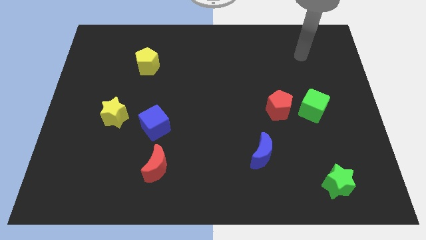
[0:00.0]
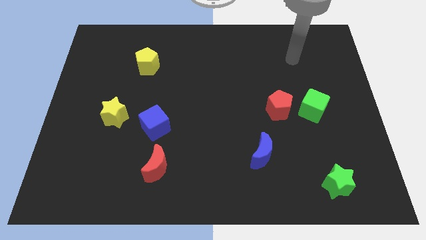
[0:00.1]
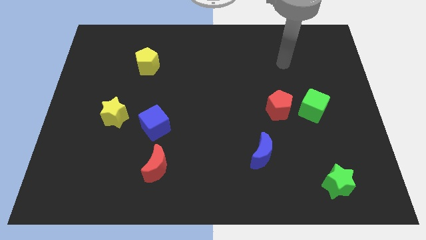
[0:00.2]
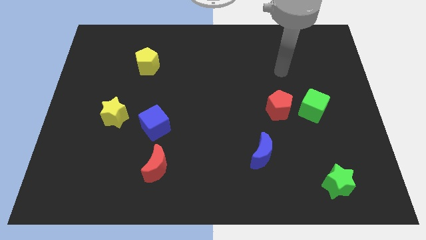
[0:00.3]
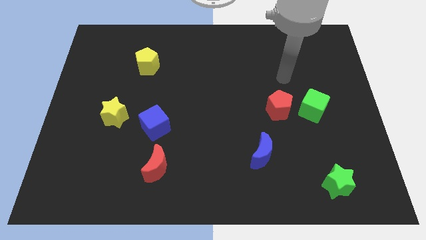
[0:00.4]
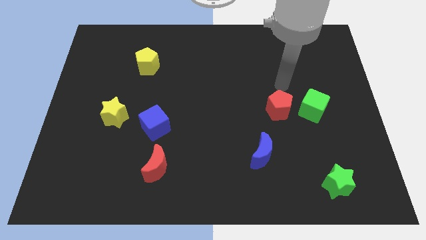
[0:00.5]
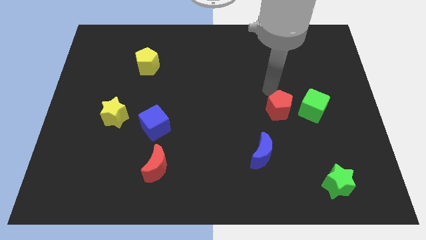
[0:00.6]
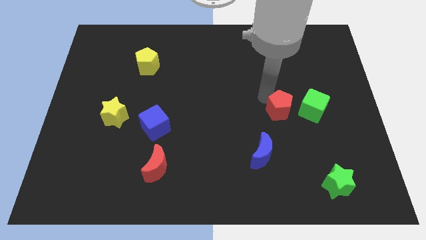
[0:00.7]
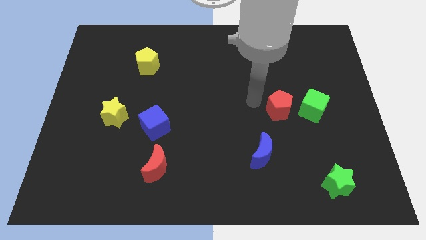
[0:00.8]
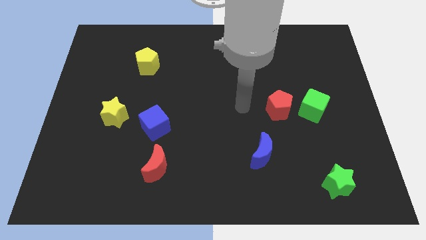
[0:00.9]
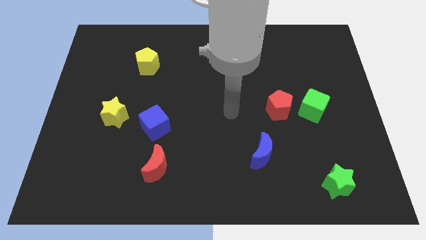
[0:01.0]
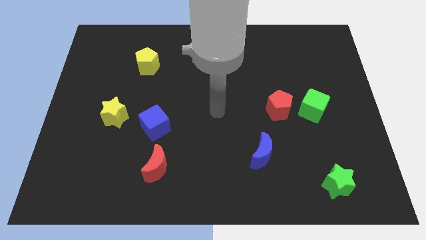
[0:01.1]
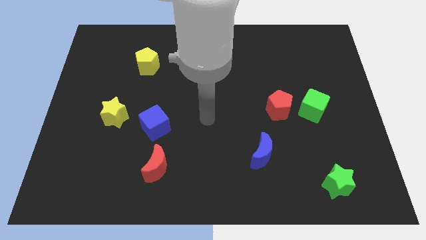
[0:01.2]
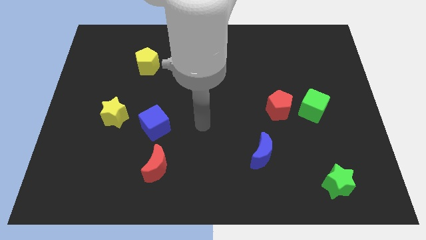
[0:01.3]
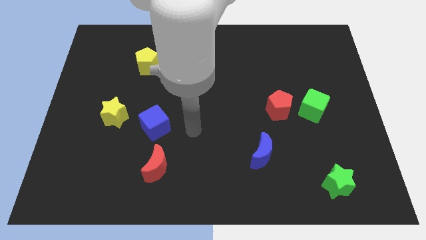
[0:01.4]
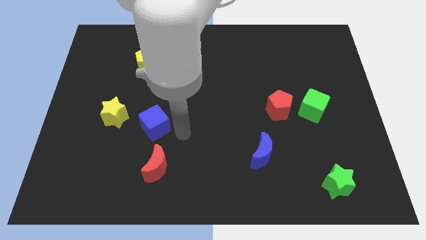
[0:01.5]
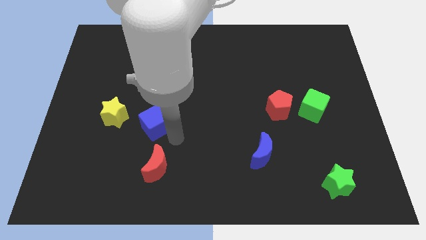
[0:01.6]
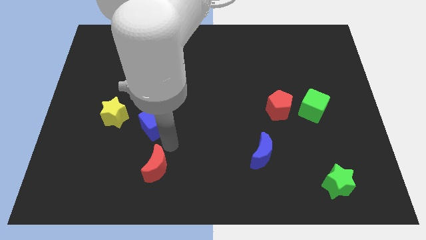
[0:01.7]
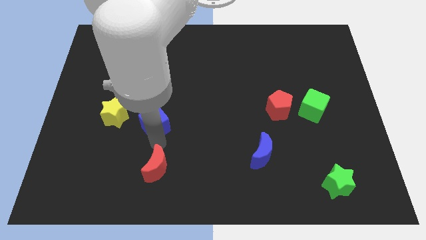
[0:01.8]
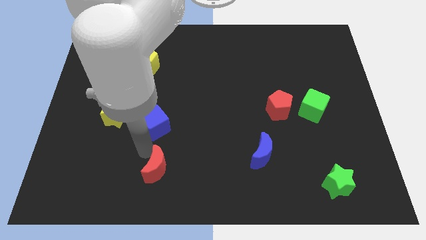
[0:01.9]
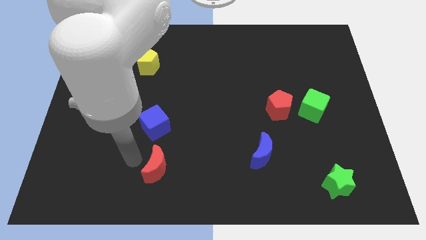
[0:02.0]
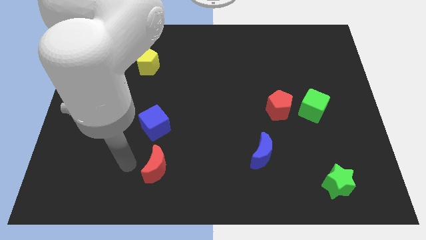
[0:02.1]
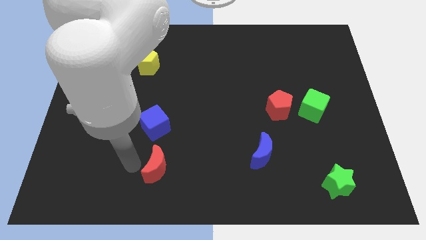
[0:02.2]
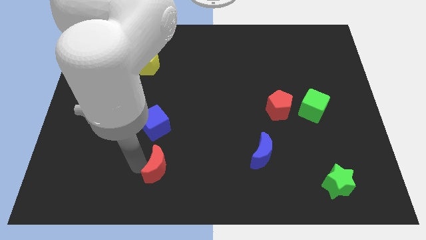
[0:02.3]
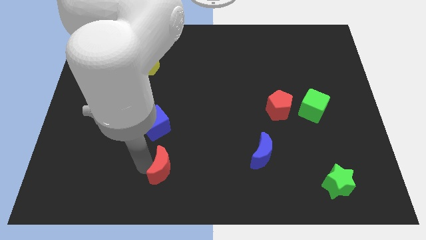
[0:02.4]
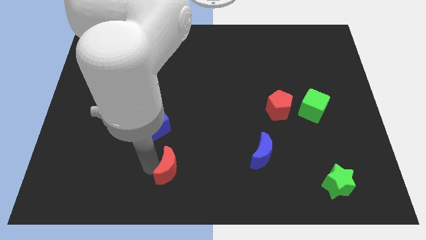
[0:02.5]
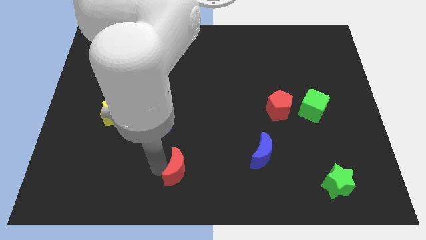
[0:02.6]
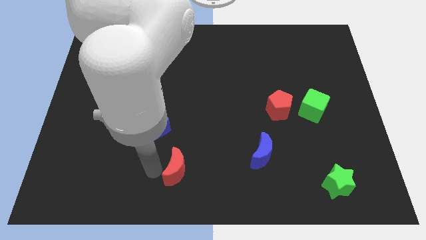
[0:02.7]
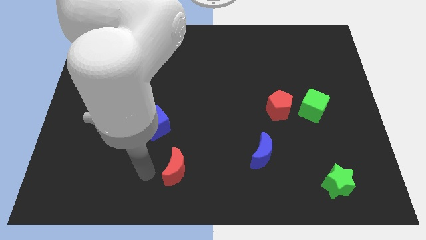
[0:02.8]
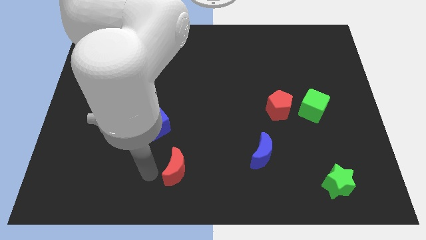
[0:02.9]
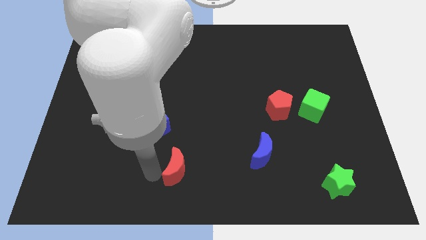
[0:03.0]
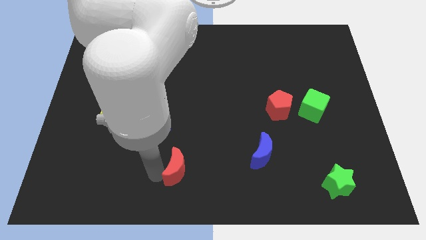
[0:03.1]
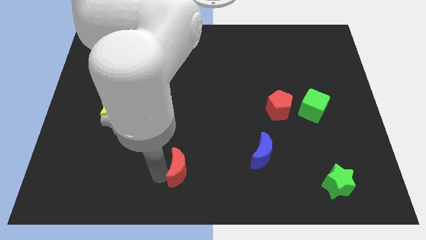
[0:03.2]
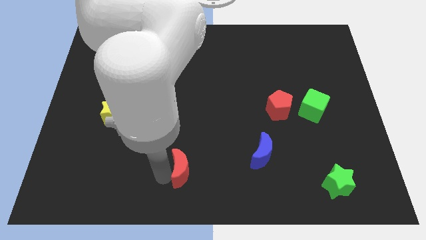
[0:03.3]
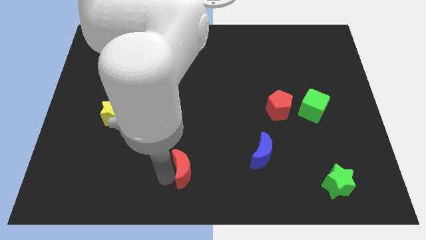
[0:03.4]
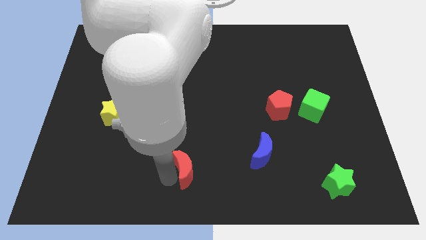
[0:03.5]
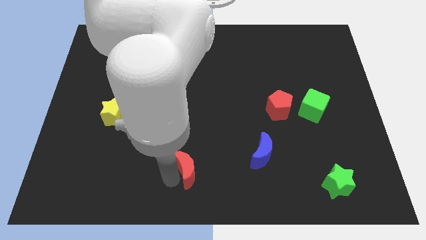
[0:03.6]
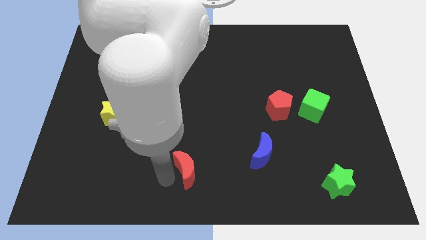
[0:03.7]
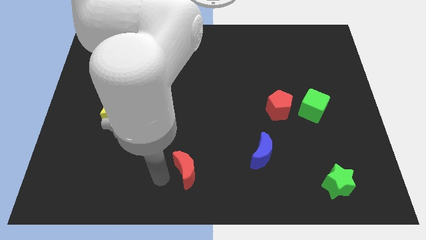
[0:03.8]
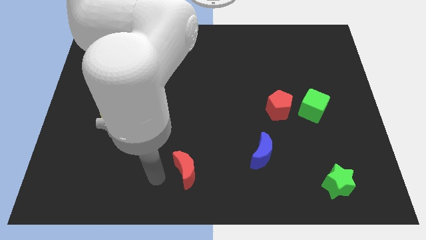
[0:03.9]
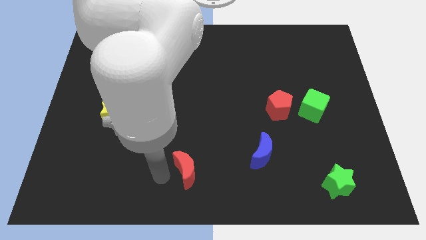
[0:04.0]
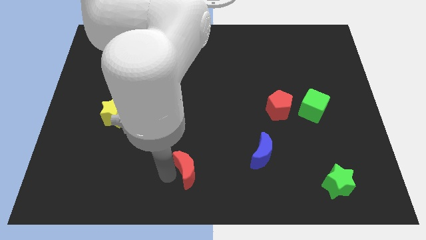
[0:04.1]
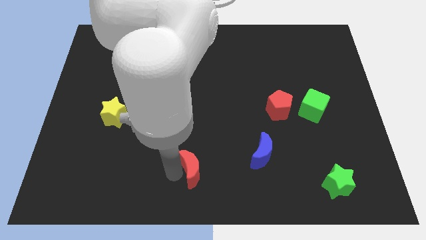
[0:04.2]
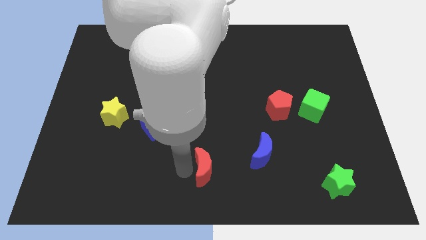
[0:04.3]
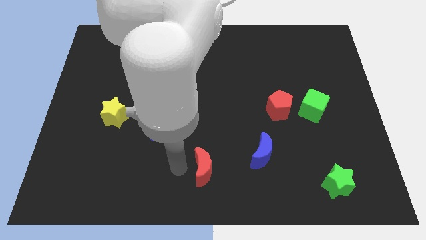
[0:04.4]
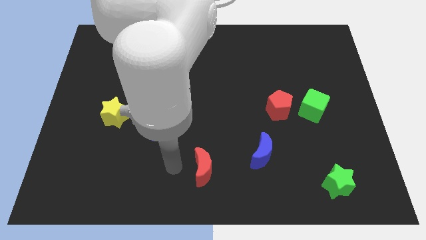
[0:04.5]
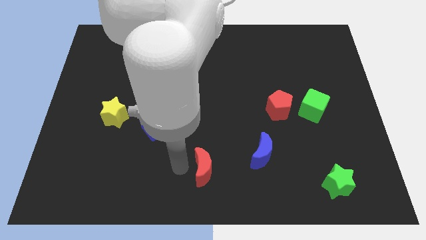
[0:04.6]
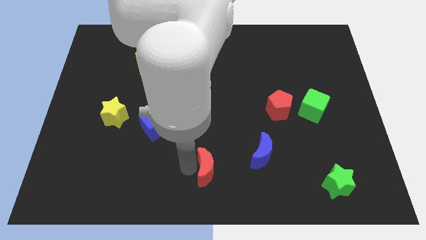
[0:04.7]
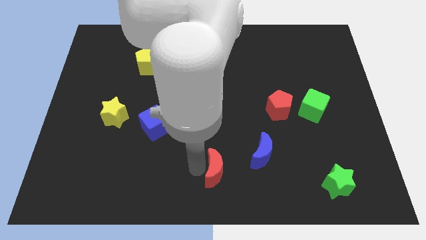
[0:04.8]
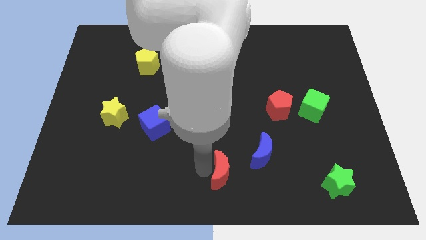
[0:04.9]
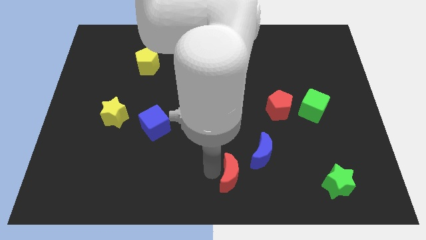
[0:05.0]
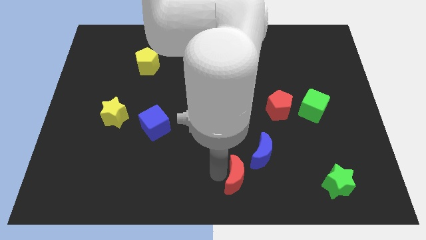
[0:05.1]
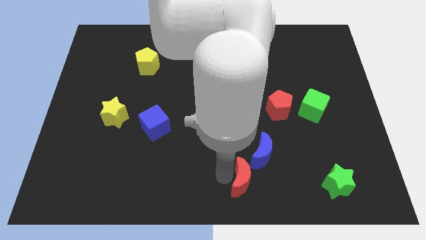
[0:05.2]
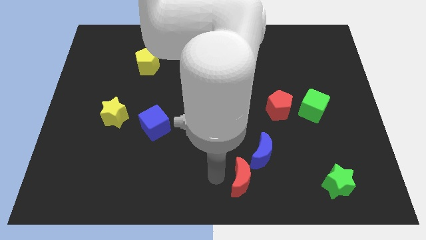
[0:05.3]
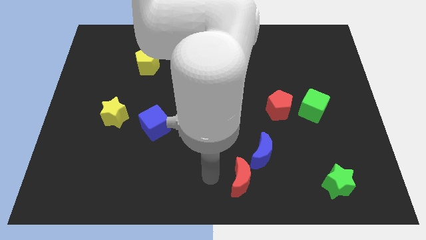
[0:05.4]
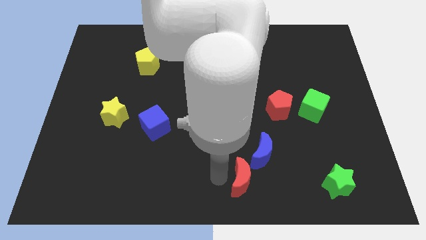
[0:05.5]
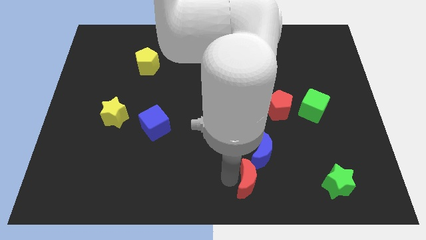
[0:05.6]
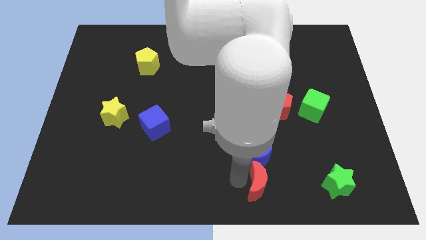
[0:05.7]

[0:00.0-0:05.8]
move the red moon to the left side of the green star

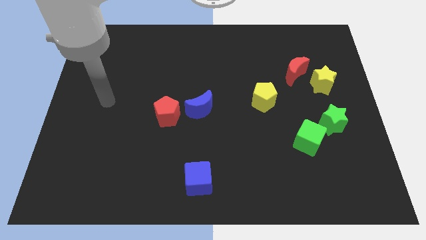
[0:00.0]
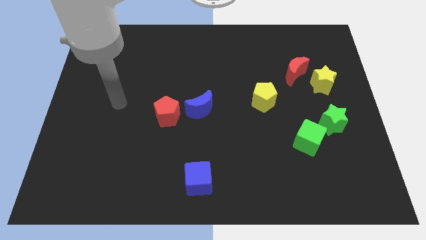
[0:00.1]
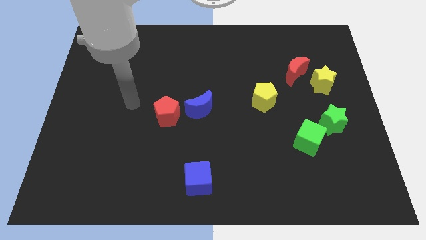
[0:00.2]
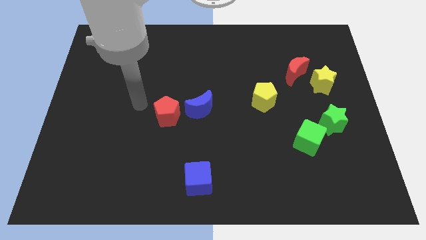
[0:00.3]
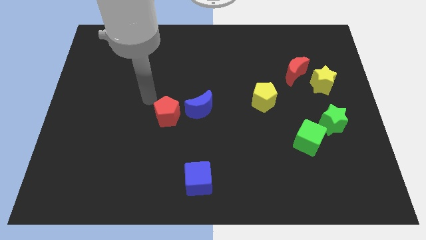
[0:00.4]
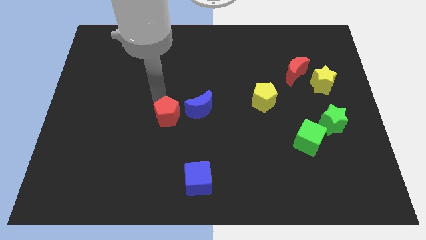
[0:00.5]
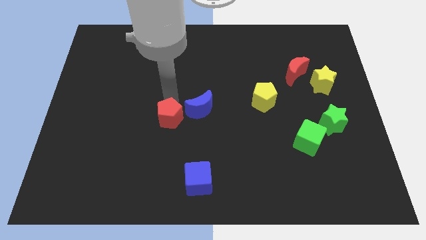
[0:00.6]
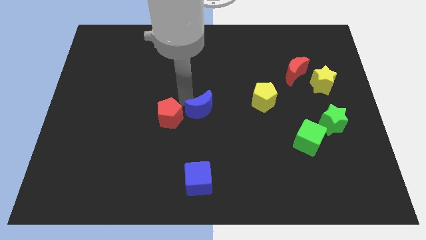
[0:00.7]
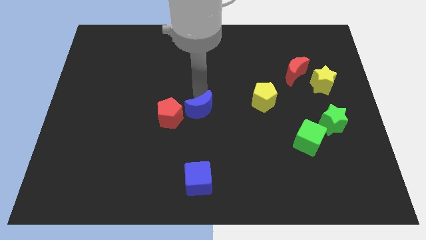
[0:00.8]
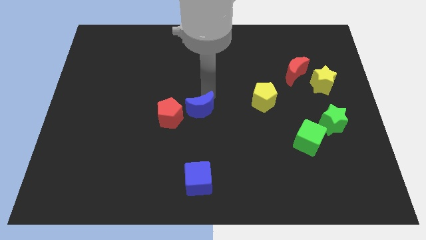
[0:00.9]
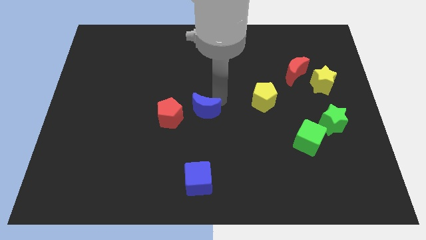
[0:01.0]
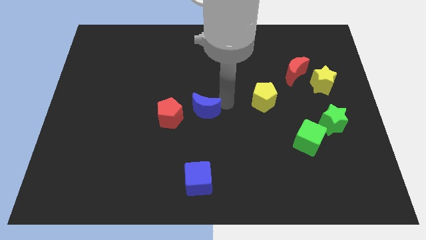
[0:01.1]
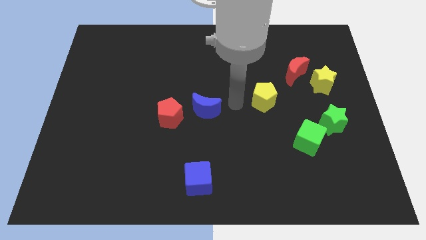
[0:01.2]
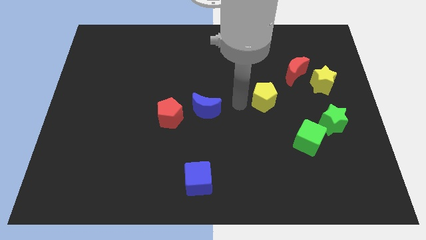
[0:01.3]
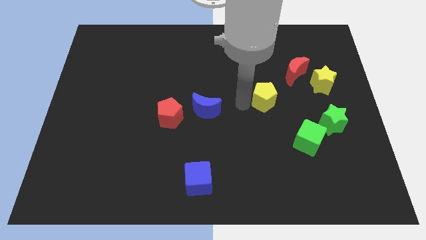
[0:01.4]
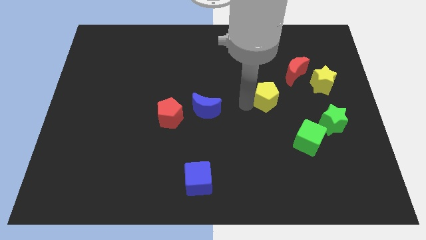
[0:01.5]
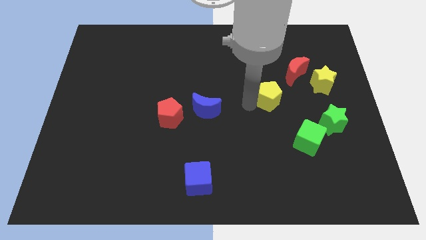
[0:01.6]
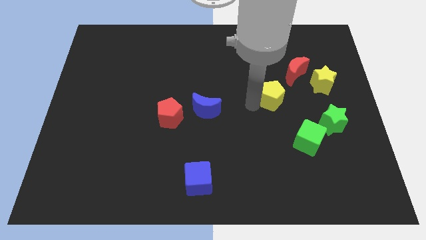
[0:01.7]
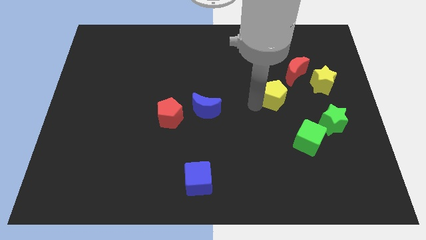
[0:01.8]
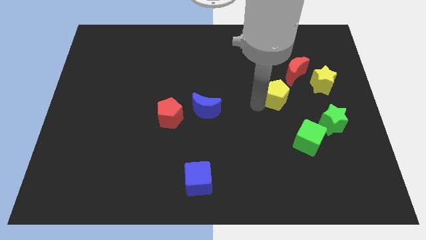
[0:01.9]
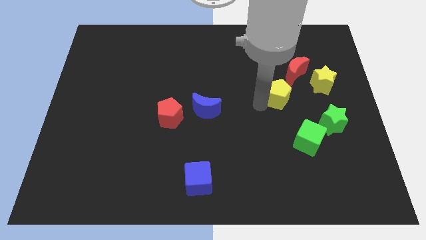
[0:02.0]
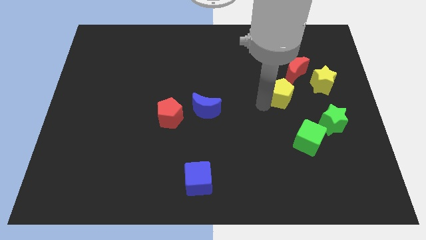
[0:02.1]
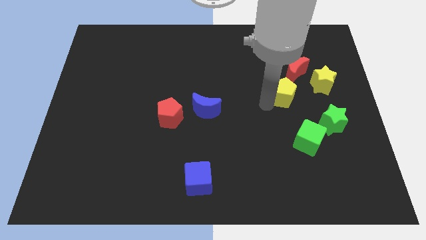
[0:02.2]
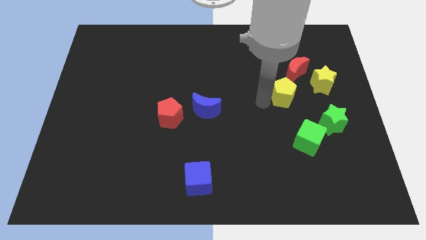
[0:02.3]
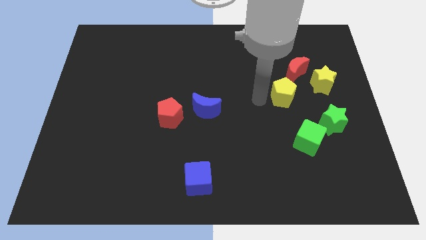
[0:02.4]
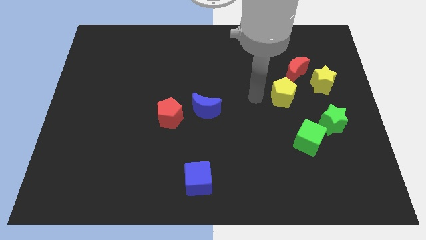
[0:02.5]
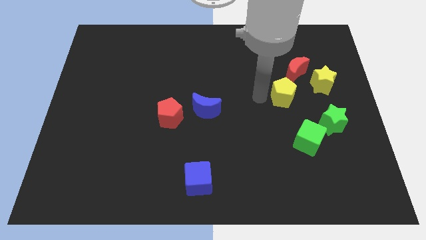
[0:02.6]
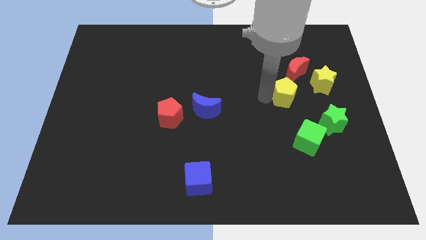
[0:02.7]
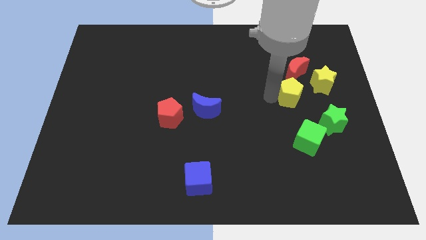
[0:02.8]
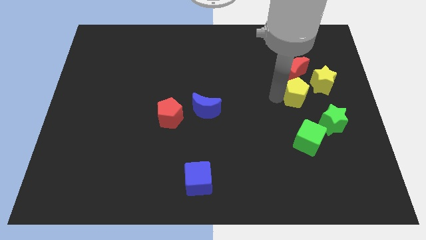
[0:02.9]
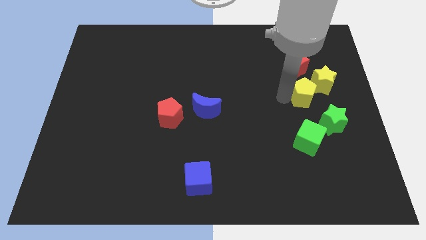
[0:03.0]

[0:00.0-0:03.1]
push the yellow pentagon diagonally down and to the right of the red moon
